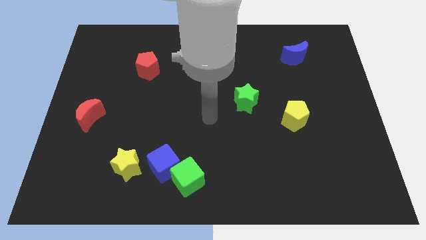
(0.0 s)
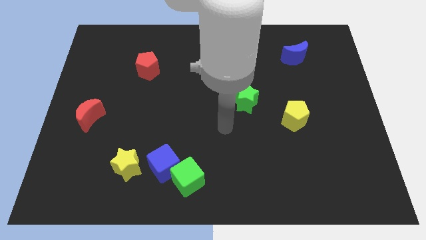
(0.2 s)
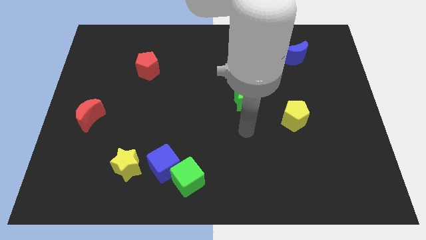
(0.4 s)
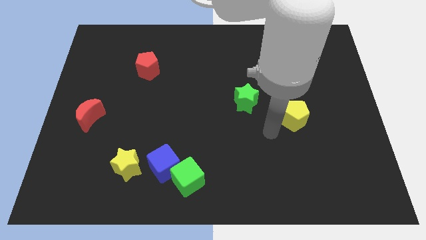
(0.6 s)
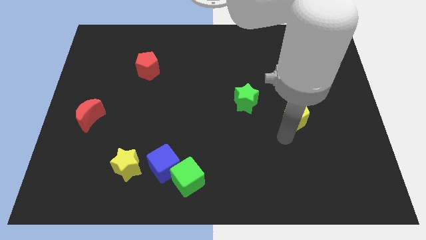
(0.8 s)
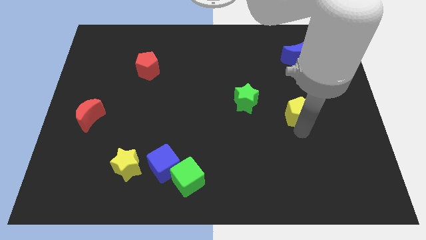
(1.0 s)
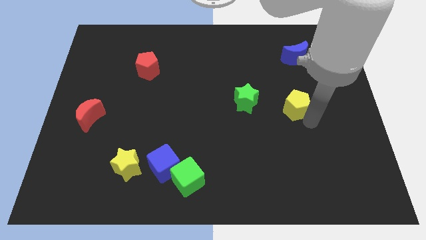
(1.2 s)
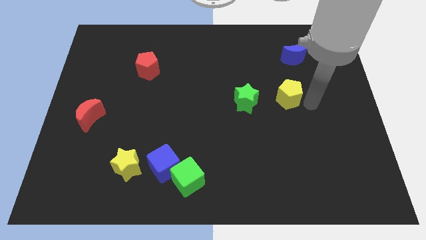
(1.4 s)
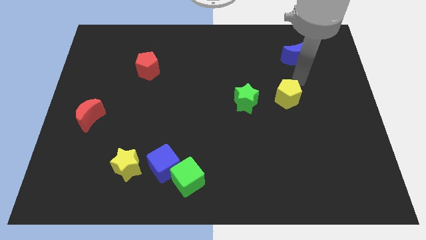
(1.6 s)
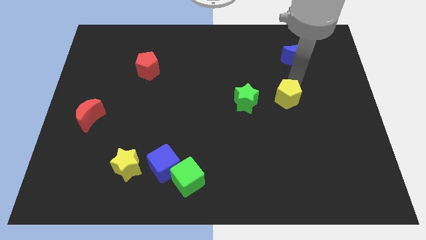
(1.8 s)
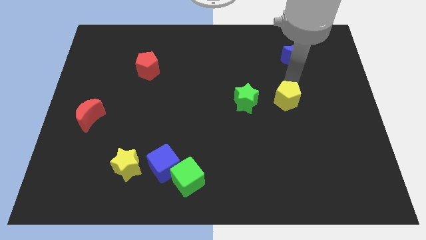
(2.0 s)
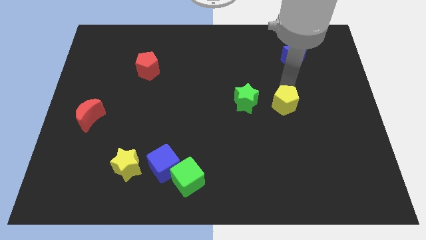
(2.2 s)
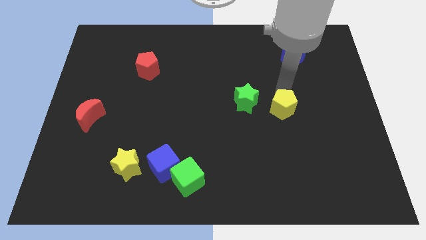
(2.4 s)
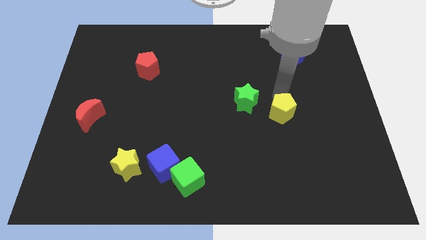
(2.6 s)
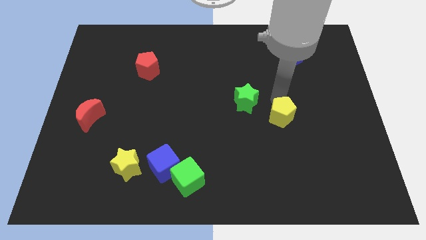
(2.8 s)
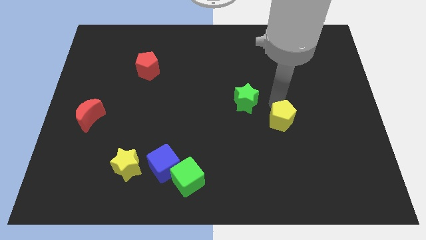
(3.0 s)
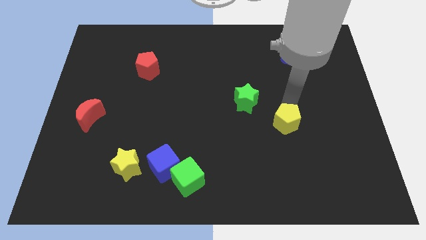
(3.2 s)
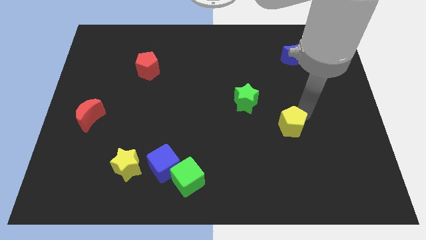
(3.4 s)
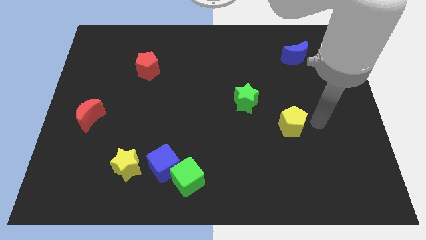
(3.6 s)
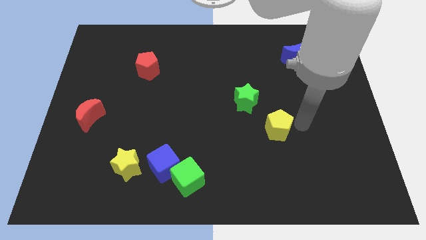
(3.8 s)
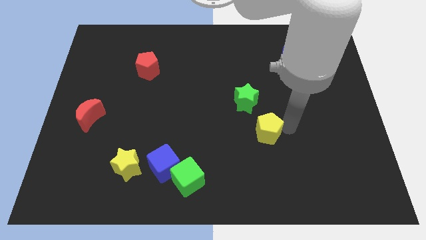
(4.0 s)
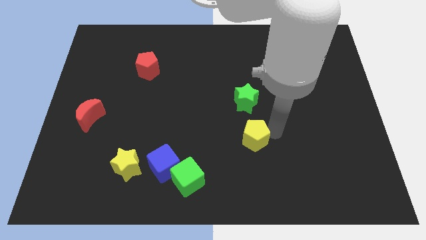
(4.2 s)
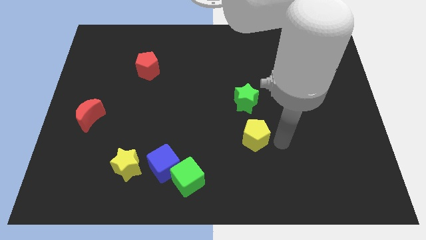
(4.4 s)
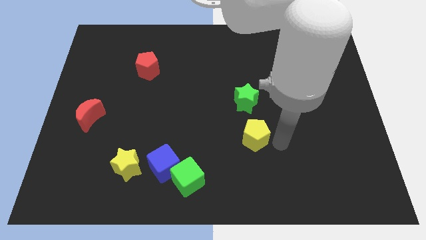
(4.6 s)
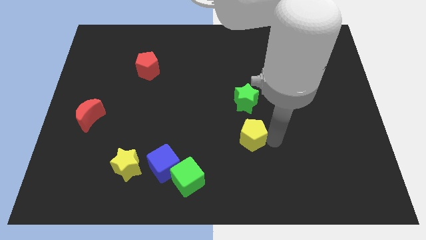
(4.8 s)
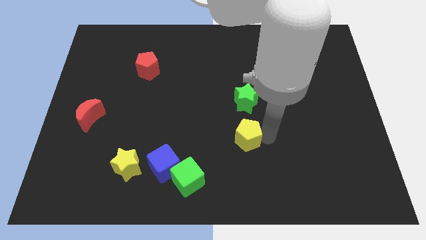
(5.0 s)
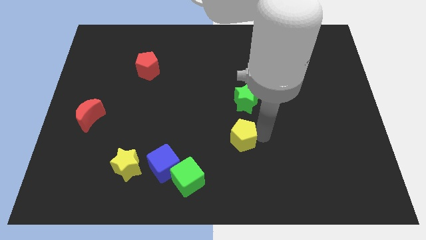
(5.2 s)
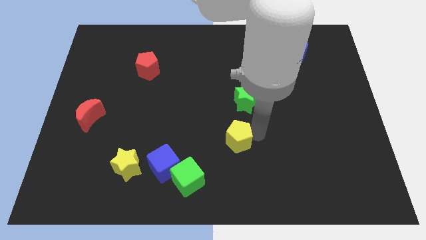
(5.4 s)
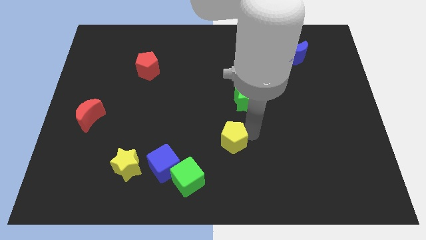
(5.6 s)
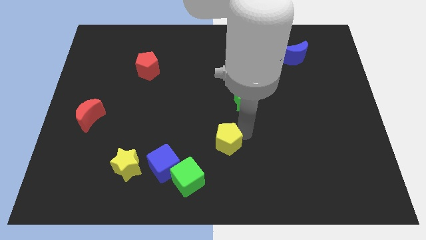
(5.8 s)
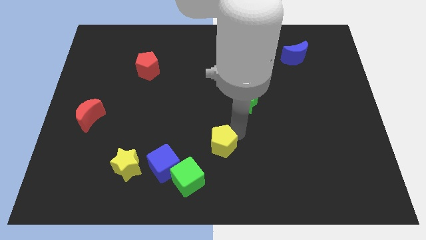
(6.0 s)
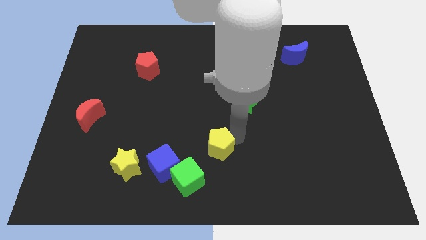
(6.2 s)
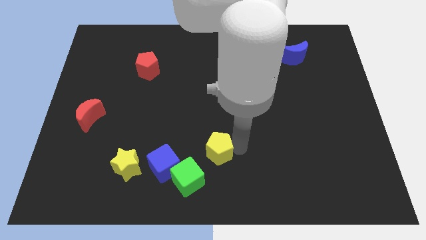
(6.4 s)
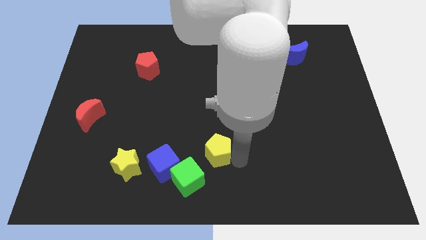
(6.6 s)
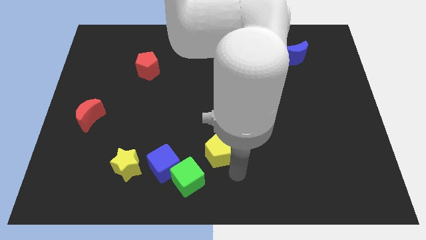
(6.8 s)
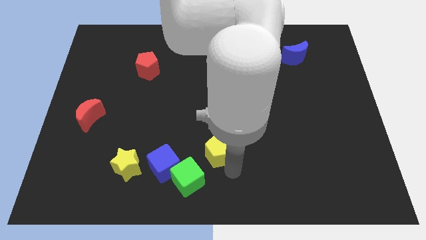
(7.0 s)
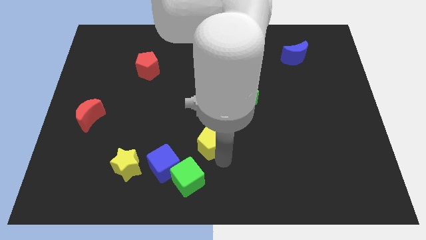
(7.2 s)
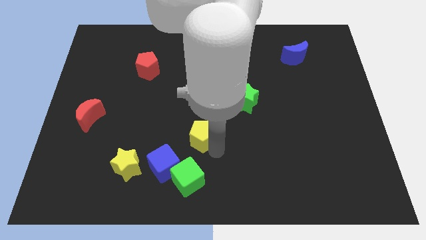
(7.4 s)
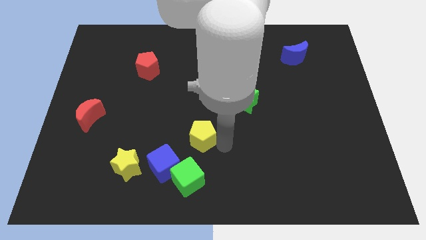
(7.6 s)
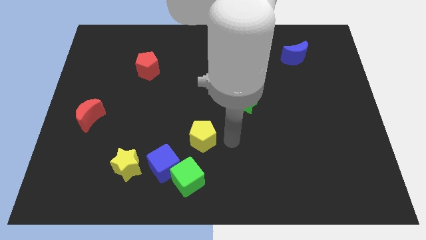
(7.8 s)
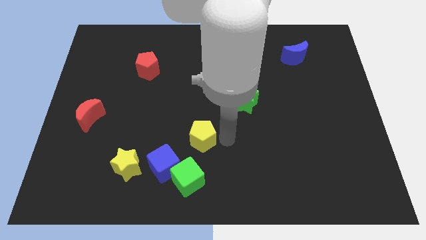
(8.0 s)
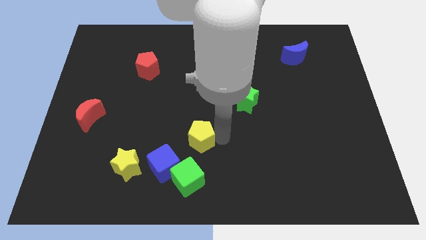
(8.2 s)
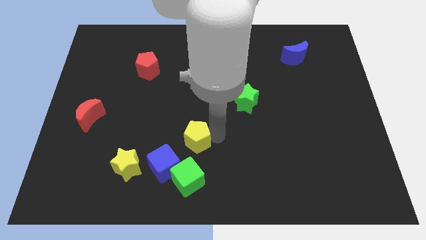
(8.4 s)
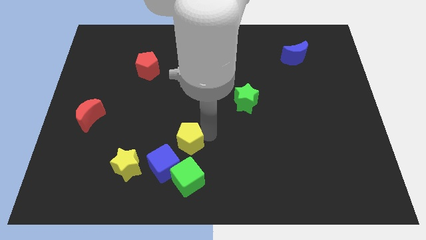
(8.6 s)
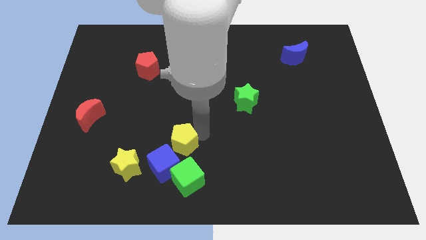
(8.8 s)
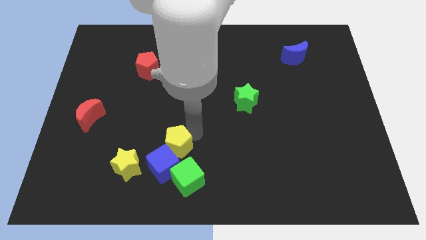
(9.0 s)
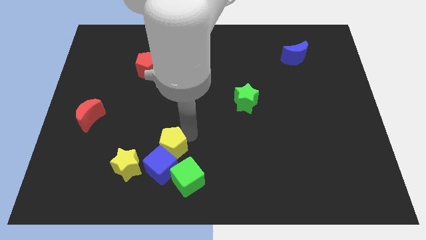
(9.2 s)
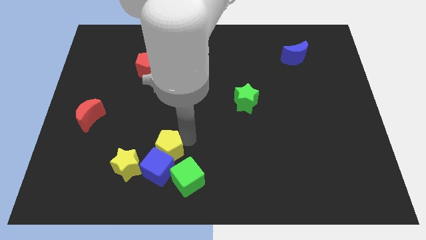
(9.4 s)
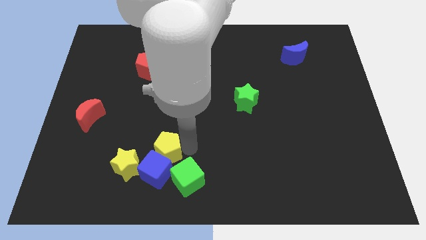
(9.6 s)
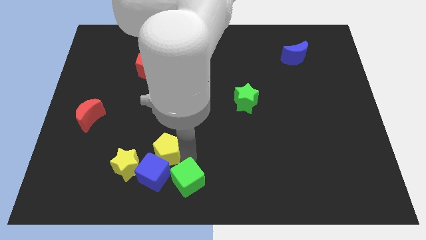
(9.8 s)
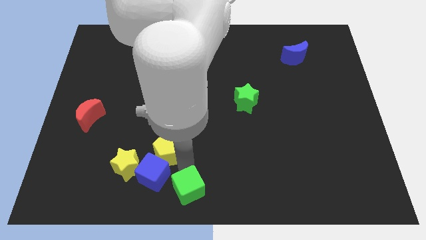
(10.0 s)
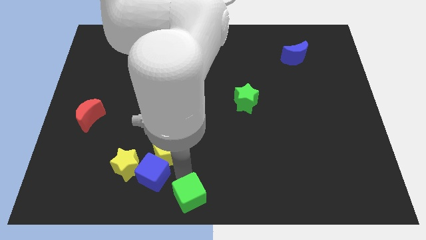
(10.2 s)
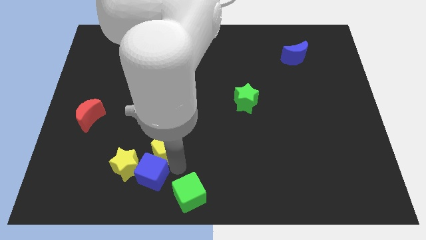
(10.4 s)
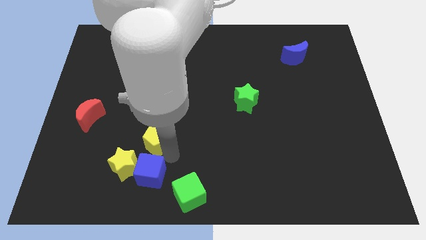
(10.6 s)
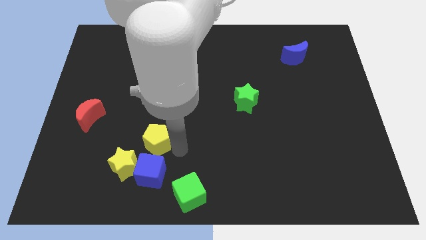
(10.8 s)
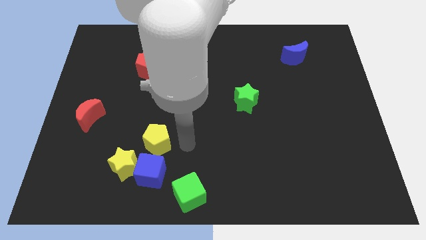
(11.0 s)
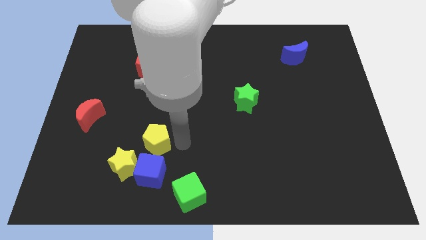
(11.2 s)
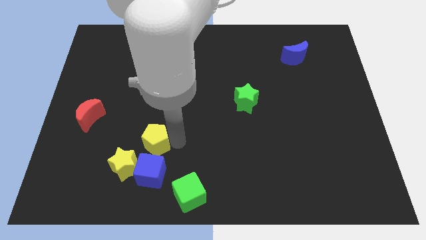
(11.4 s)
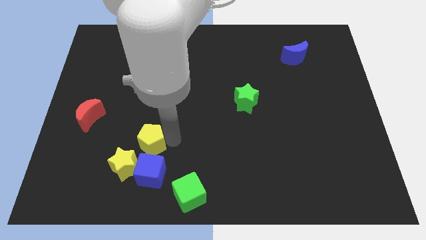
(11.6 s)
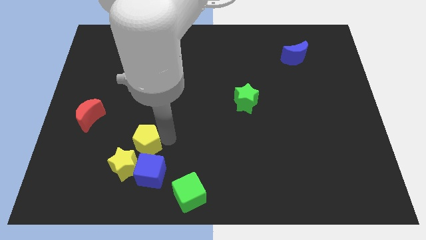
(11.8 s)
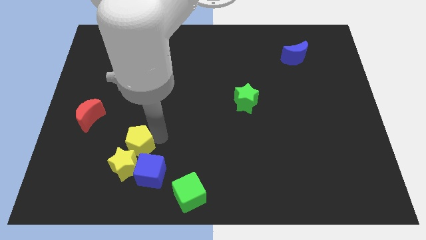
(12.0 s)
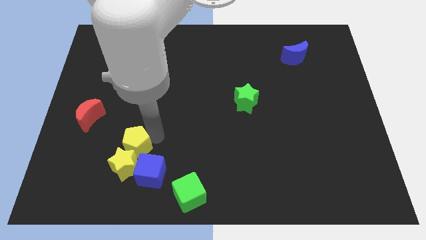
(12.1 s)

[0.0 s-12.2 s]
move the yellow pentagon to the top left side of the yellow star
